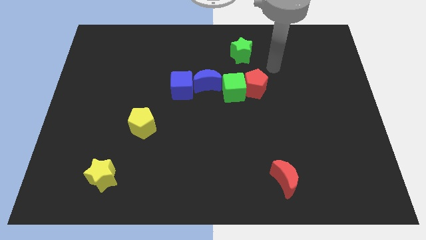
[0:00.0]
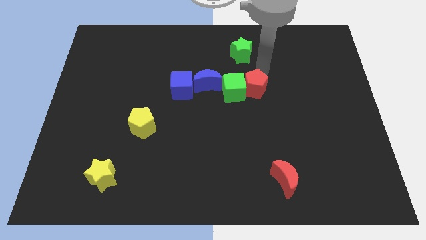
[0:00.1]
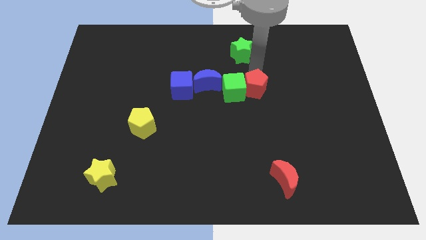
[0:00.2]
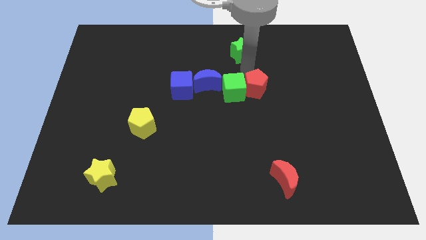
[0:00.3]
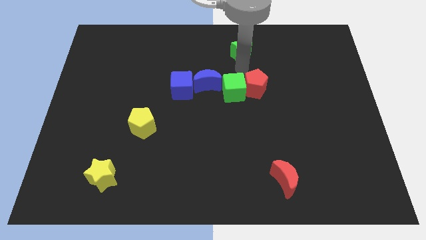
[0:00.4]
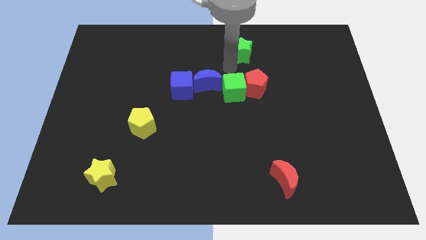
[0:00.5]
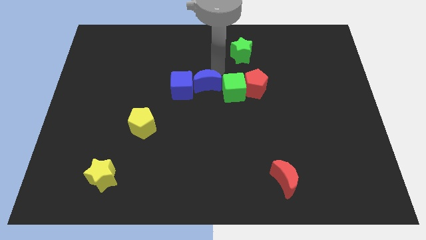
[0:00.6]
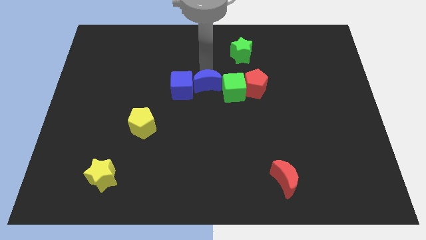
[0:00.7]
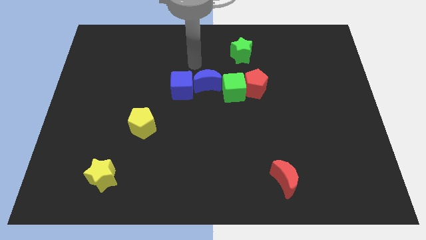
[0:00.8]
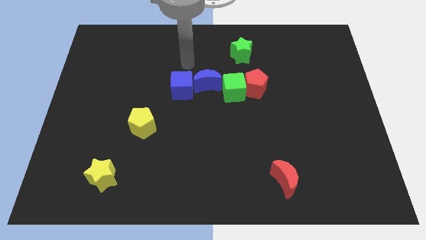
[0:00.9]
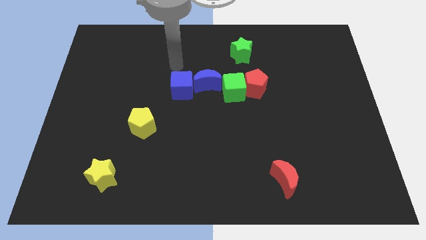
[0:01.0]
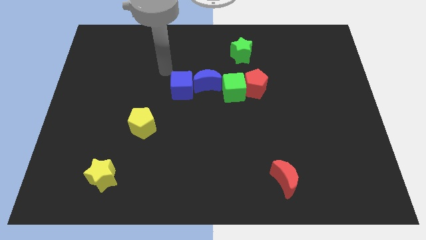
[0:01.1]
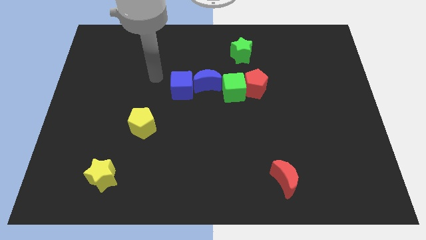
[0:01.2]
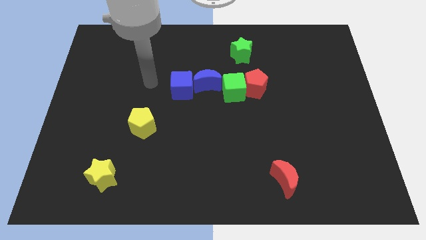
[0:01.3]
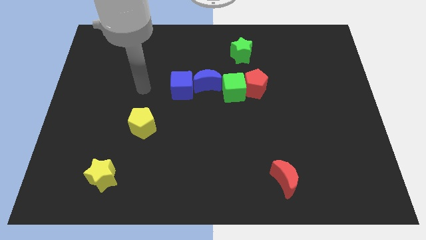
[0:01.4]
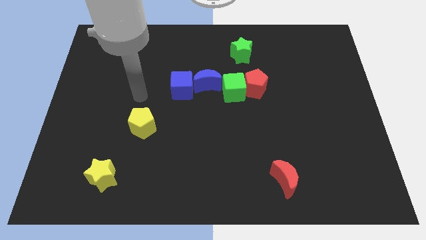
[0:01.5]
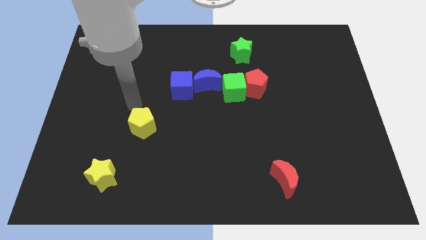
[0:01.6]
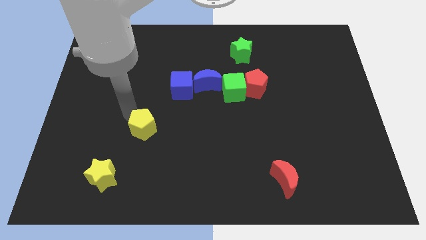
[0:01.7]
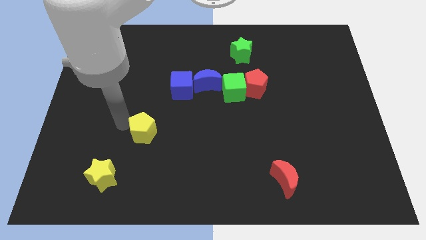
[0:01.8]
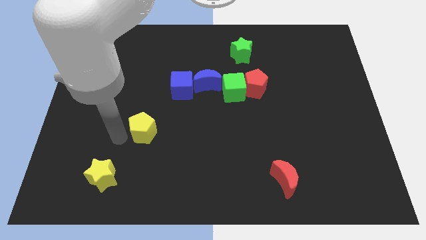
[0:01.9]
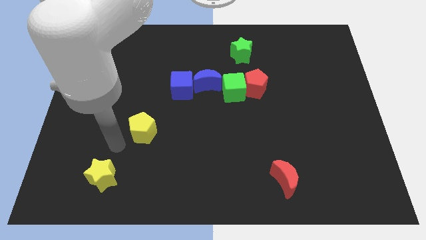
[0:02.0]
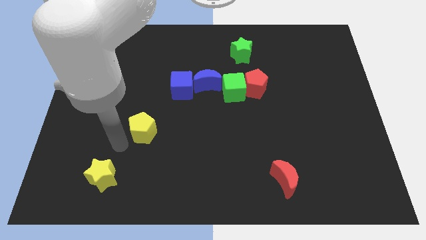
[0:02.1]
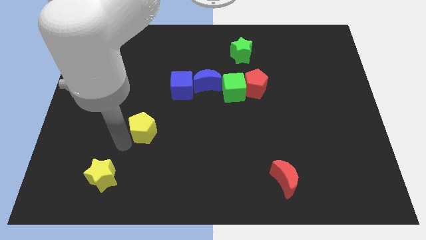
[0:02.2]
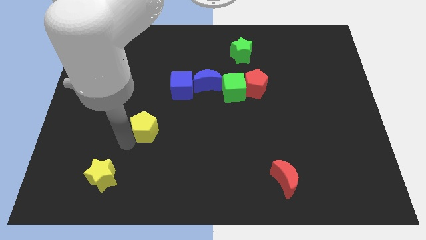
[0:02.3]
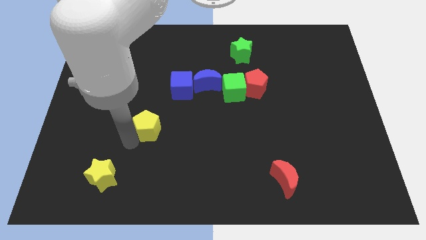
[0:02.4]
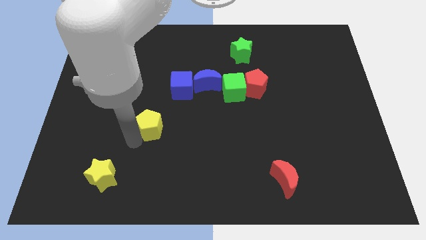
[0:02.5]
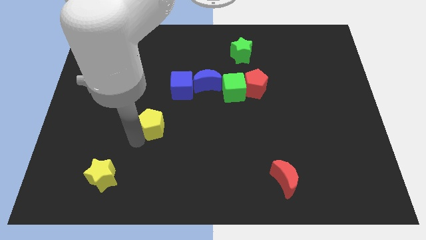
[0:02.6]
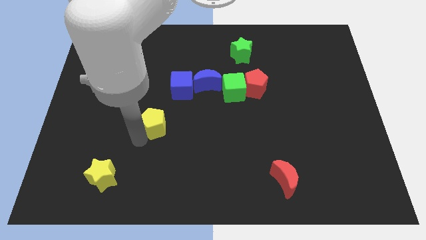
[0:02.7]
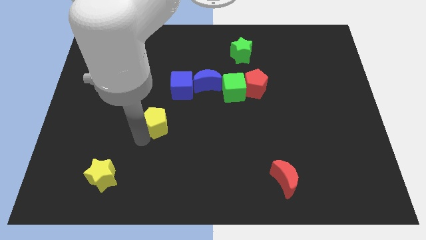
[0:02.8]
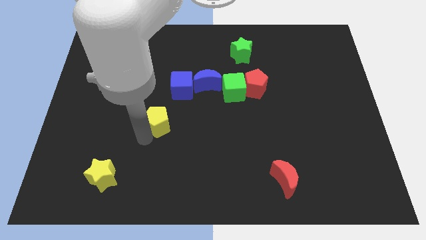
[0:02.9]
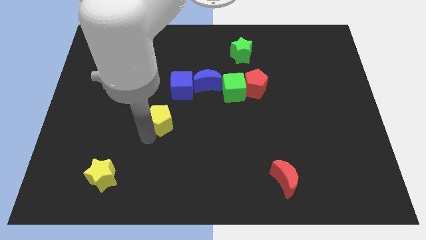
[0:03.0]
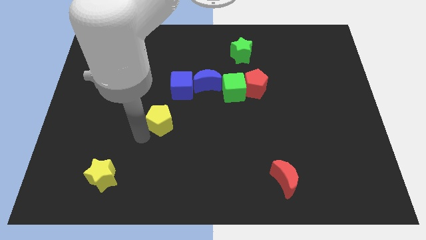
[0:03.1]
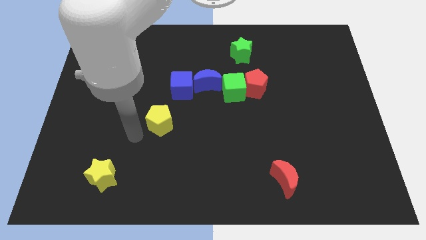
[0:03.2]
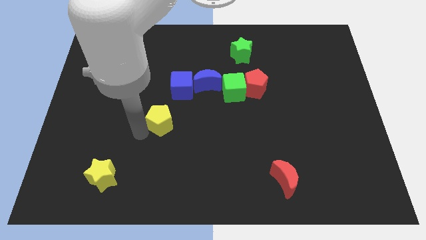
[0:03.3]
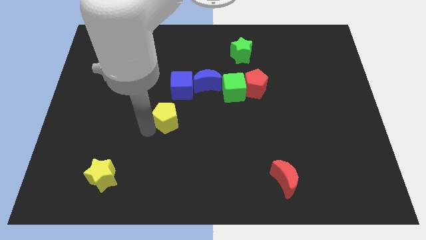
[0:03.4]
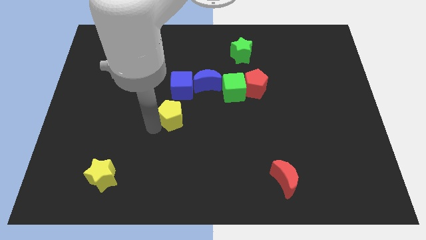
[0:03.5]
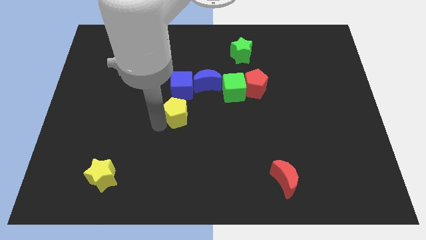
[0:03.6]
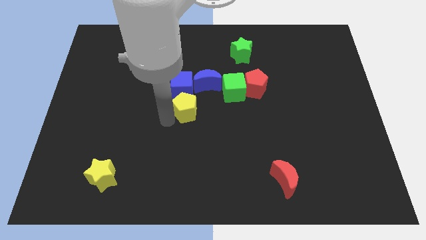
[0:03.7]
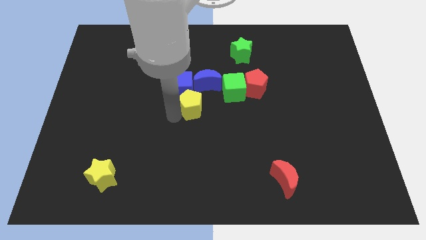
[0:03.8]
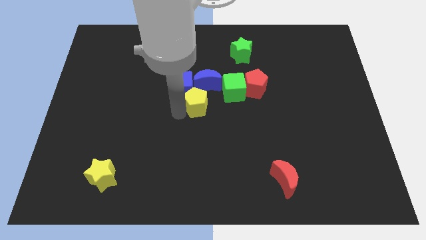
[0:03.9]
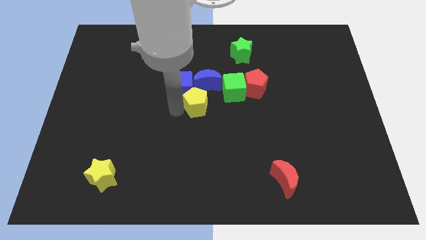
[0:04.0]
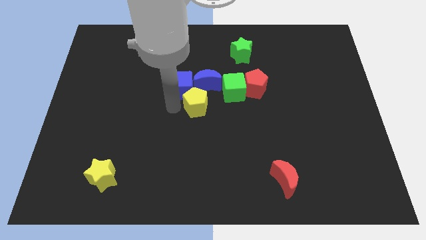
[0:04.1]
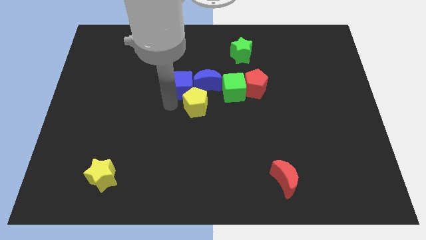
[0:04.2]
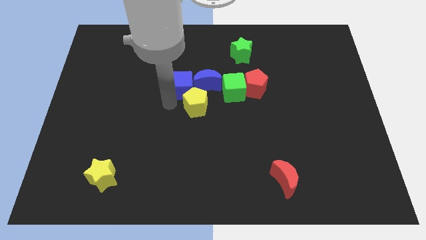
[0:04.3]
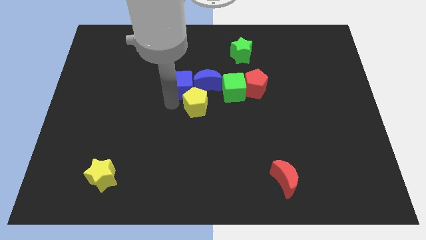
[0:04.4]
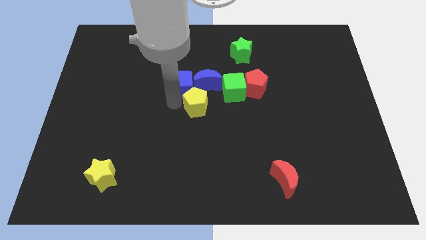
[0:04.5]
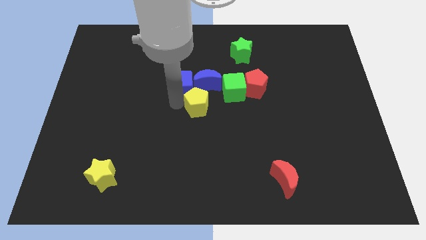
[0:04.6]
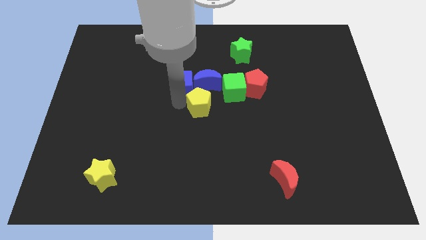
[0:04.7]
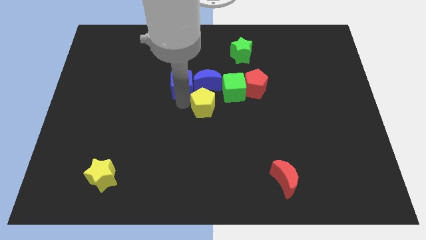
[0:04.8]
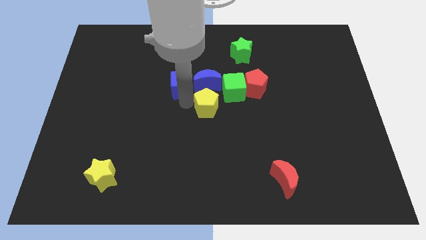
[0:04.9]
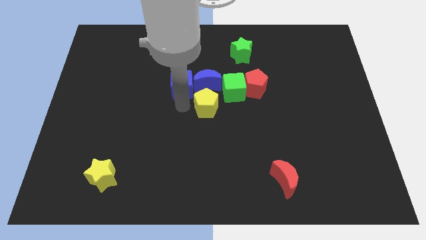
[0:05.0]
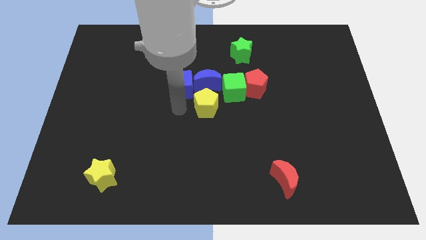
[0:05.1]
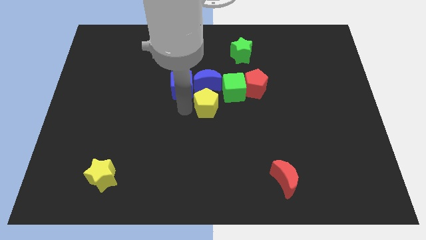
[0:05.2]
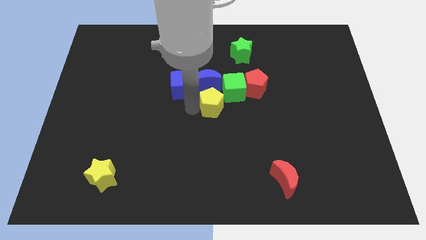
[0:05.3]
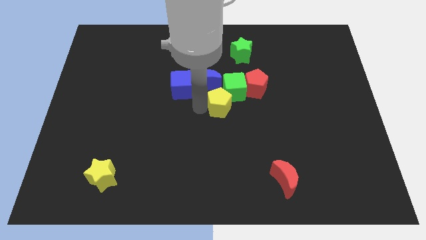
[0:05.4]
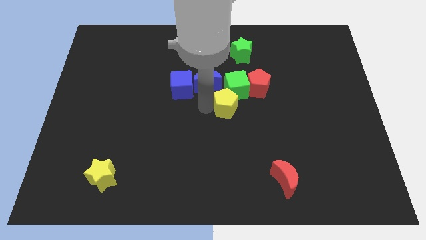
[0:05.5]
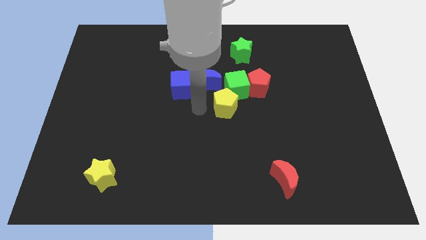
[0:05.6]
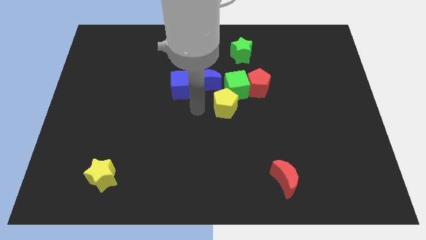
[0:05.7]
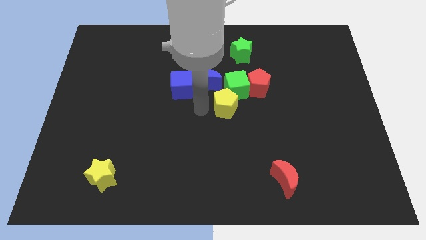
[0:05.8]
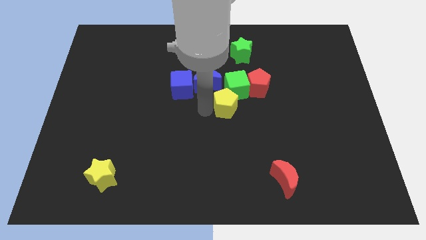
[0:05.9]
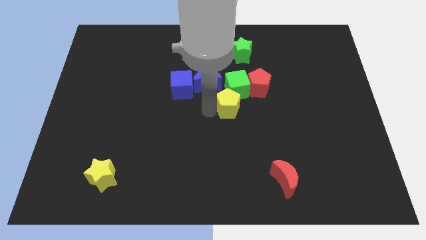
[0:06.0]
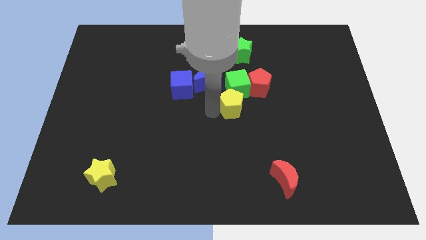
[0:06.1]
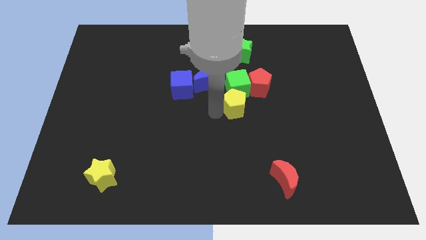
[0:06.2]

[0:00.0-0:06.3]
push the yellow pentagon to the bottom right side of the green cube
